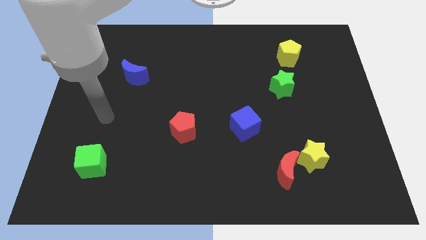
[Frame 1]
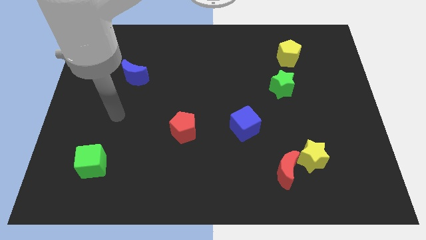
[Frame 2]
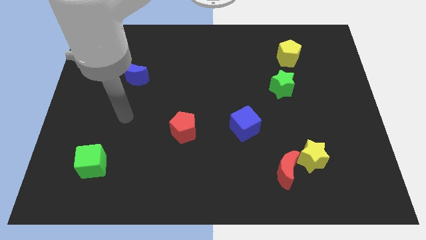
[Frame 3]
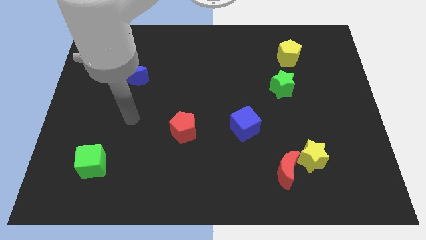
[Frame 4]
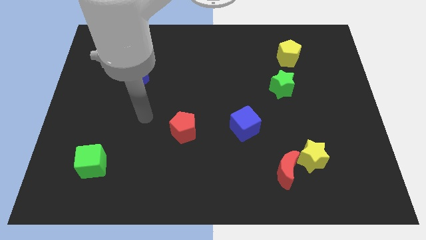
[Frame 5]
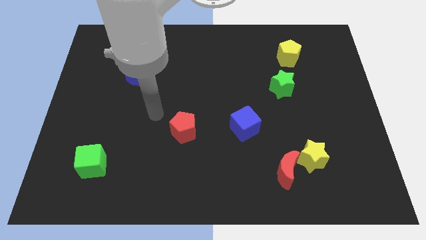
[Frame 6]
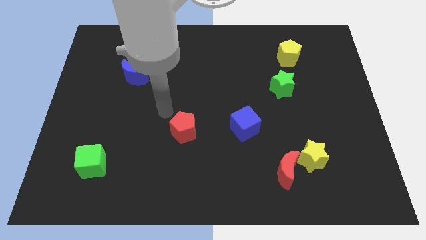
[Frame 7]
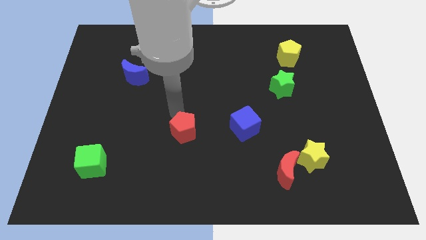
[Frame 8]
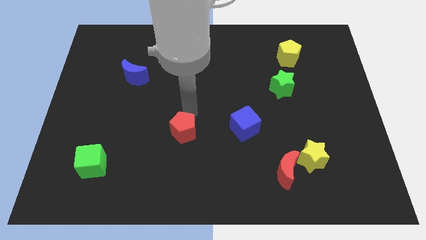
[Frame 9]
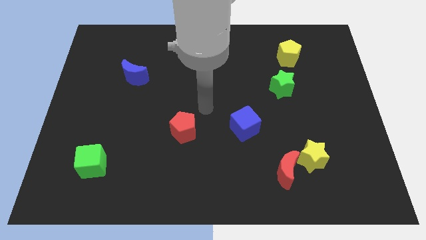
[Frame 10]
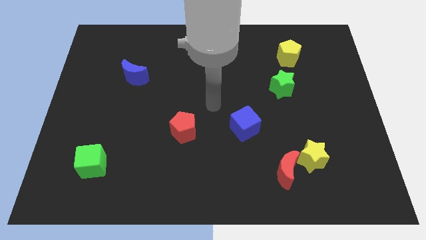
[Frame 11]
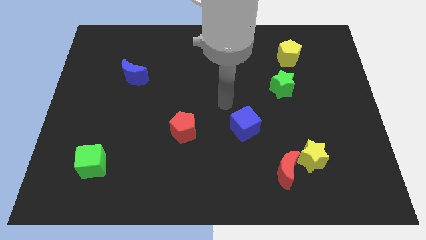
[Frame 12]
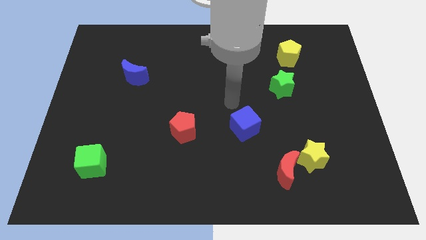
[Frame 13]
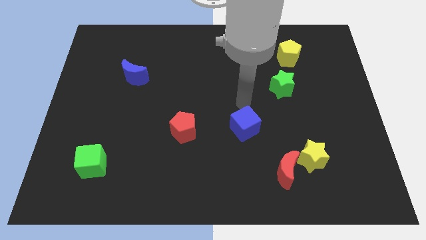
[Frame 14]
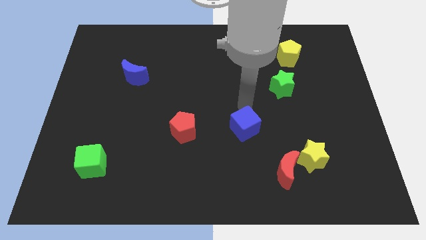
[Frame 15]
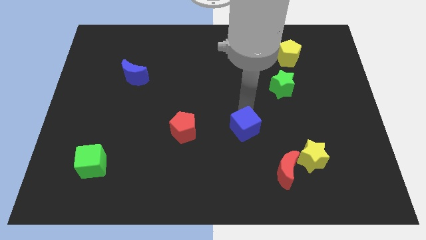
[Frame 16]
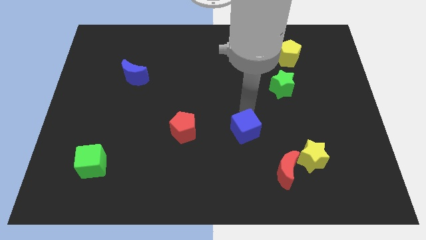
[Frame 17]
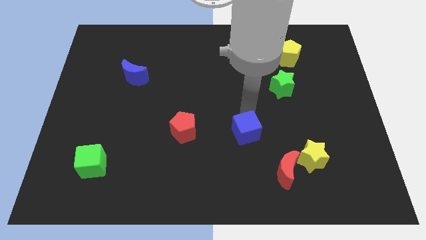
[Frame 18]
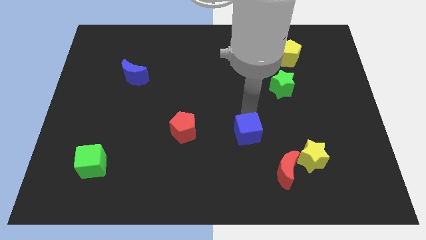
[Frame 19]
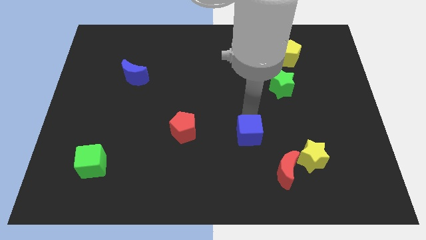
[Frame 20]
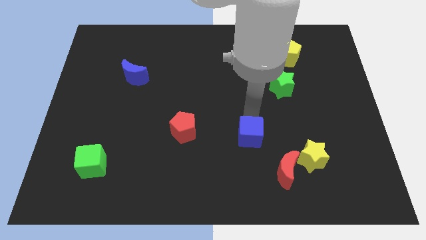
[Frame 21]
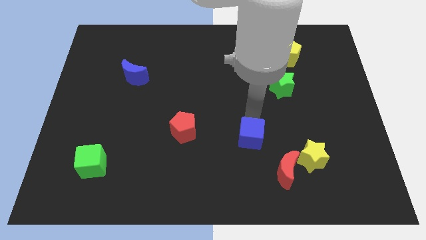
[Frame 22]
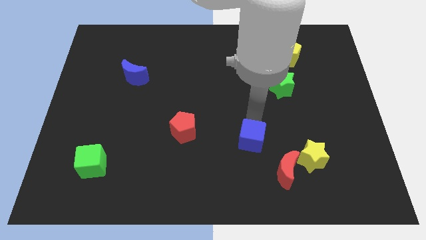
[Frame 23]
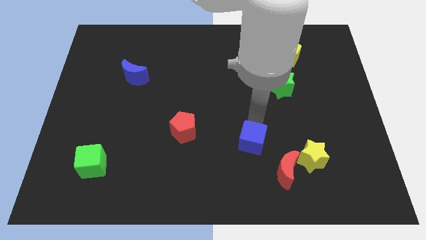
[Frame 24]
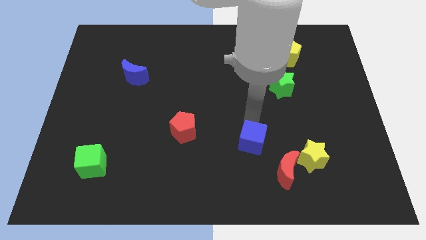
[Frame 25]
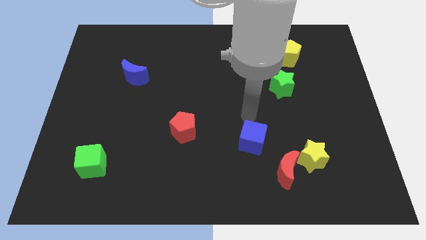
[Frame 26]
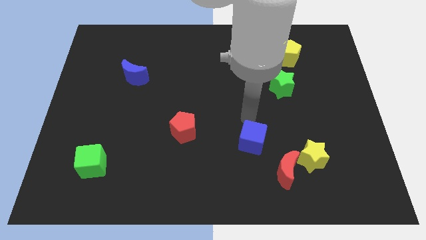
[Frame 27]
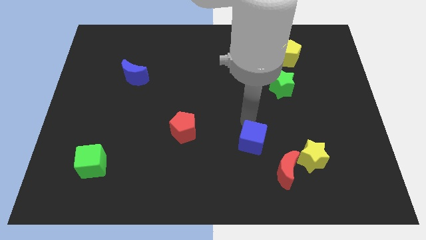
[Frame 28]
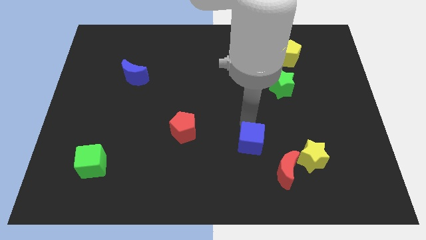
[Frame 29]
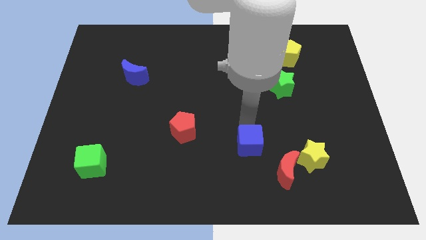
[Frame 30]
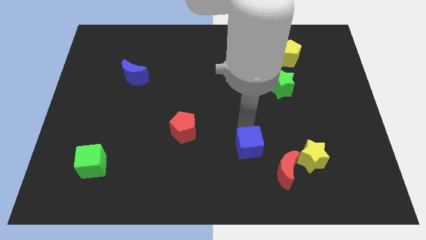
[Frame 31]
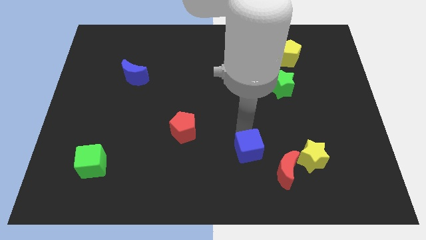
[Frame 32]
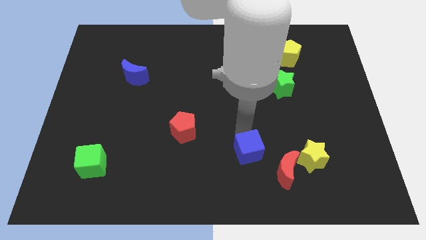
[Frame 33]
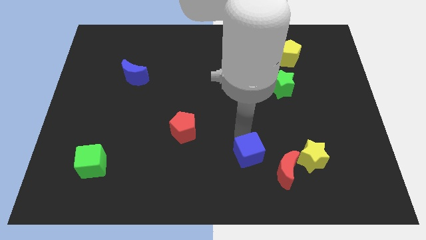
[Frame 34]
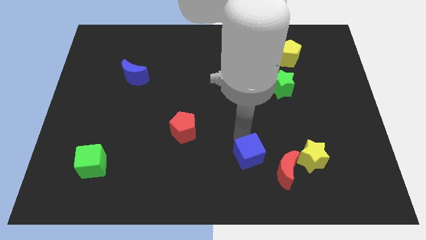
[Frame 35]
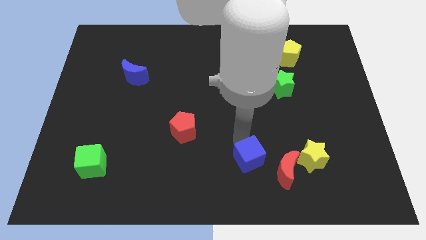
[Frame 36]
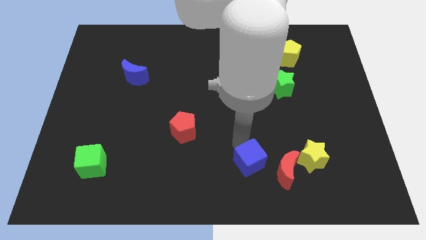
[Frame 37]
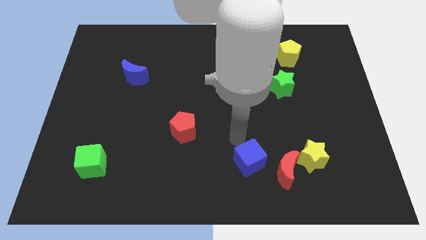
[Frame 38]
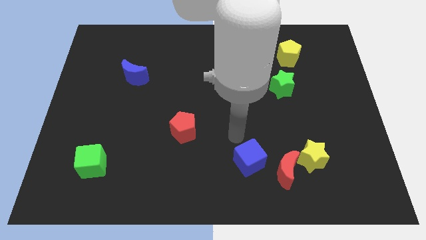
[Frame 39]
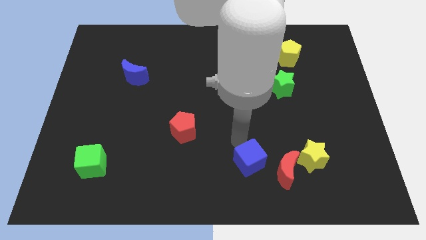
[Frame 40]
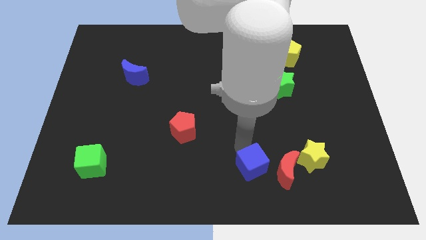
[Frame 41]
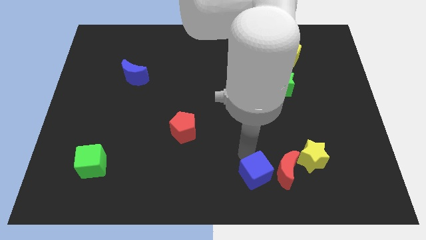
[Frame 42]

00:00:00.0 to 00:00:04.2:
slightly move the blue cube diagonally down and right

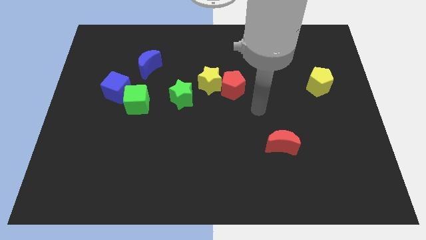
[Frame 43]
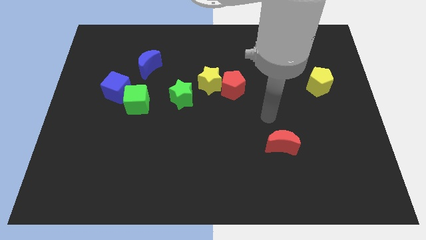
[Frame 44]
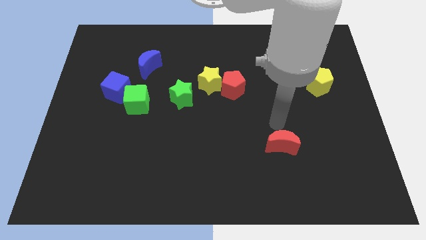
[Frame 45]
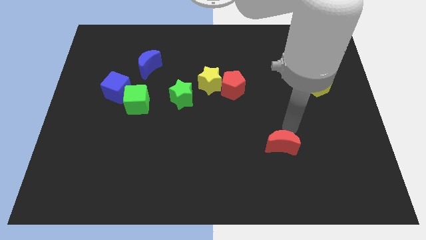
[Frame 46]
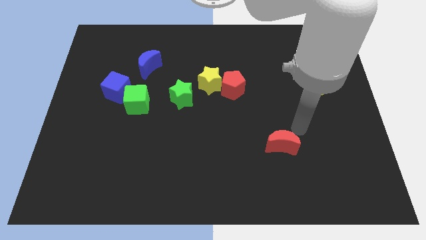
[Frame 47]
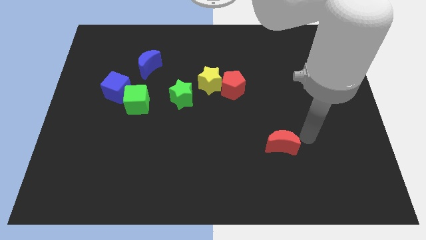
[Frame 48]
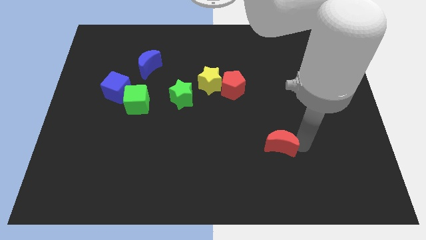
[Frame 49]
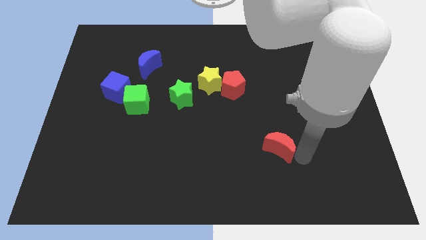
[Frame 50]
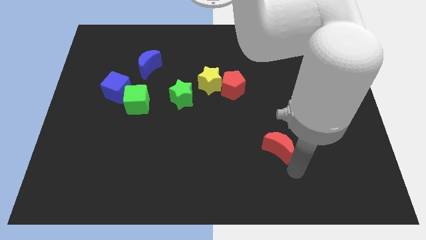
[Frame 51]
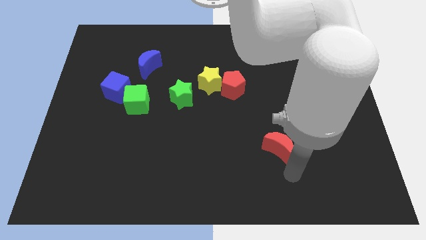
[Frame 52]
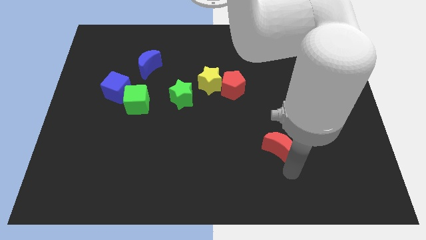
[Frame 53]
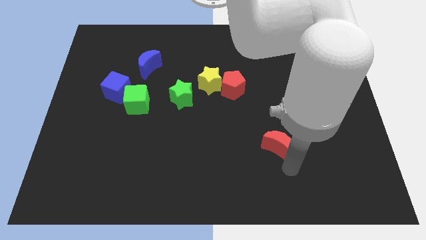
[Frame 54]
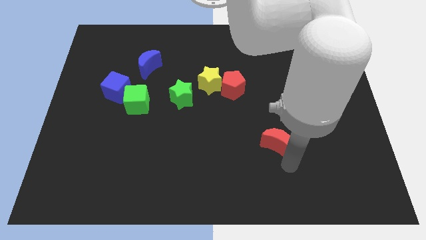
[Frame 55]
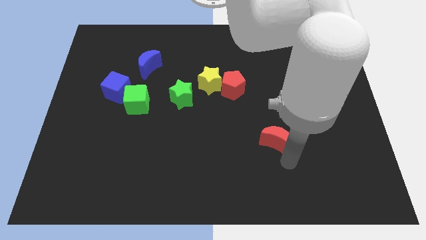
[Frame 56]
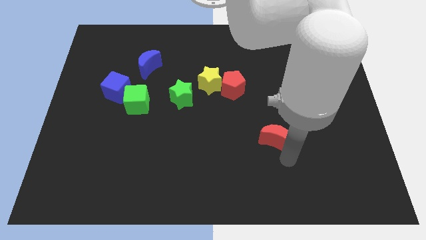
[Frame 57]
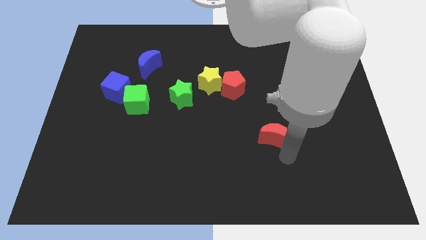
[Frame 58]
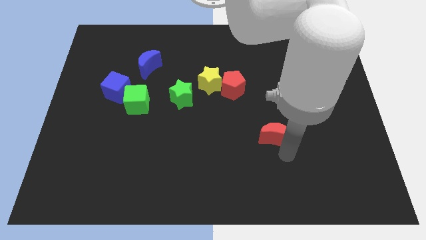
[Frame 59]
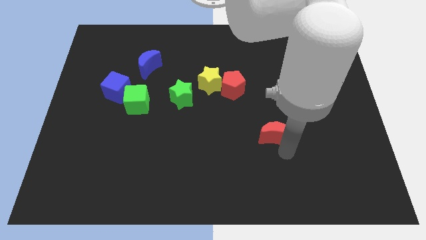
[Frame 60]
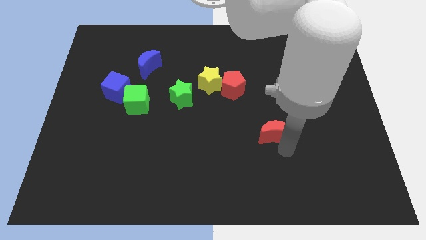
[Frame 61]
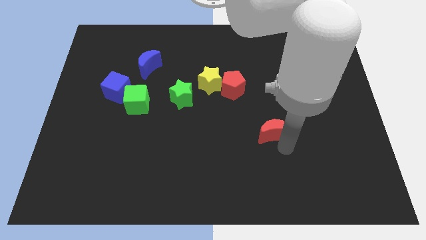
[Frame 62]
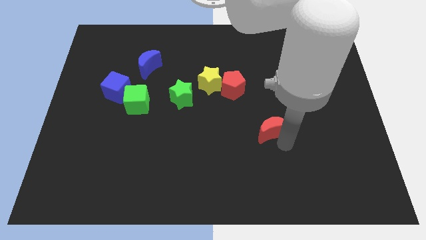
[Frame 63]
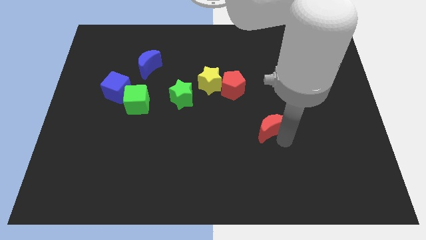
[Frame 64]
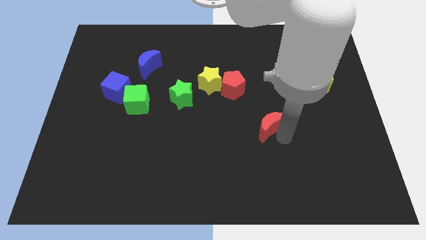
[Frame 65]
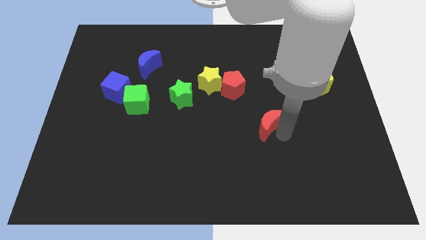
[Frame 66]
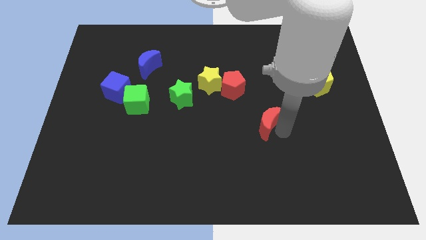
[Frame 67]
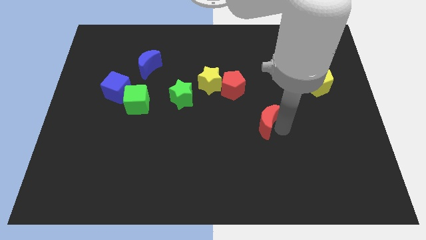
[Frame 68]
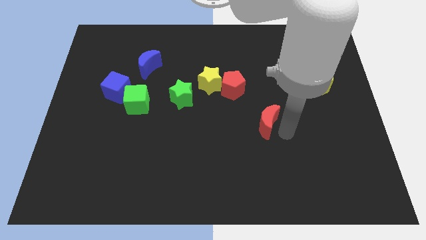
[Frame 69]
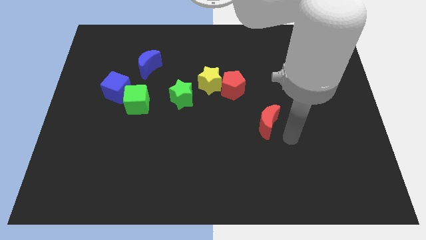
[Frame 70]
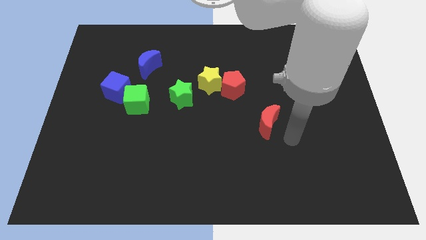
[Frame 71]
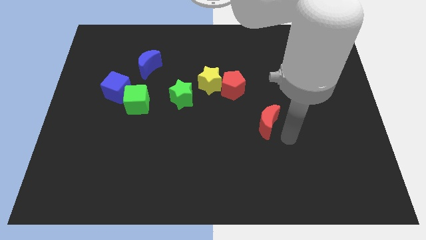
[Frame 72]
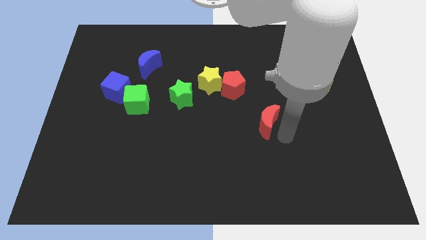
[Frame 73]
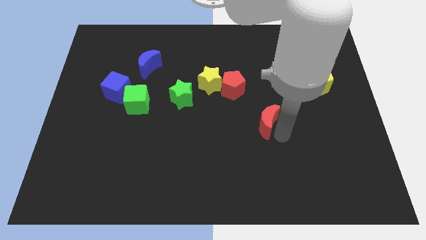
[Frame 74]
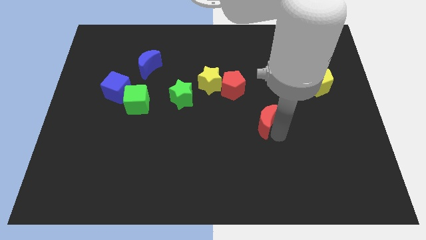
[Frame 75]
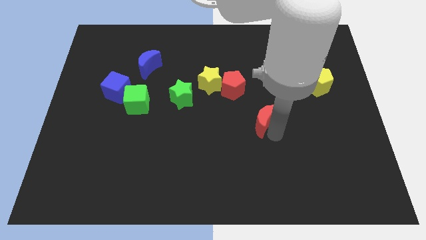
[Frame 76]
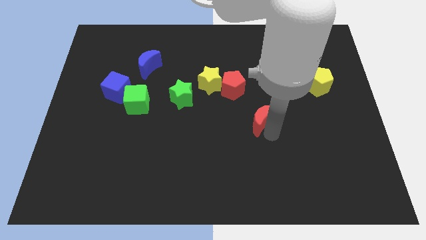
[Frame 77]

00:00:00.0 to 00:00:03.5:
slightly slide the red moon up and then left

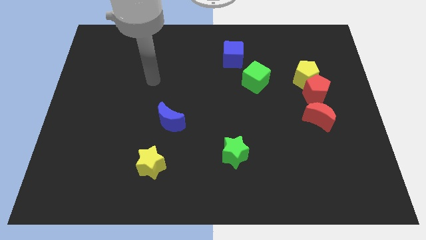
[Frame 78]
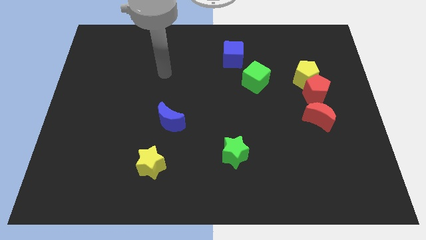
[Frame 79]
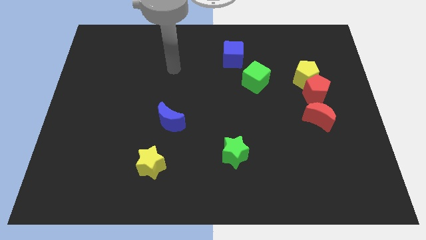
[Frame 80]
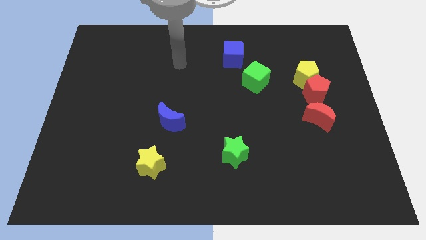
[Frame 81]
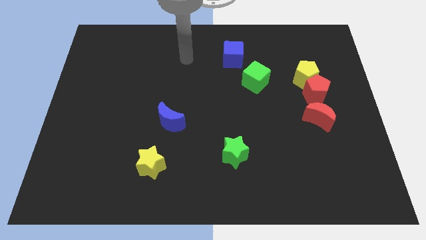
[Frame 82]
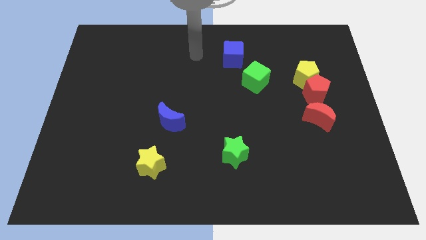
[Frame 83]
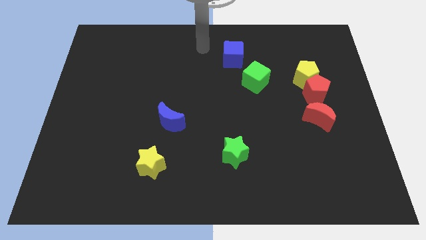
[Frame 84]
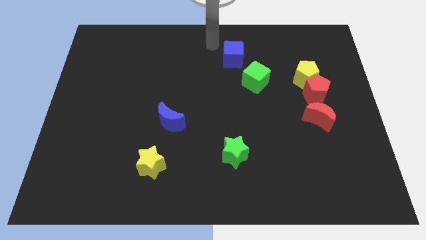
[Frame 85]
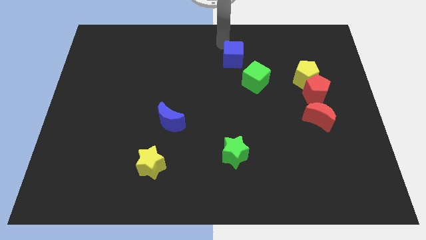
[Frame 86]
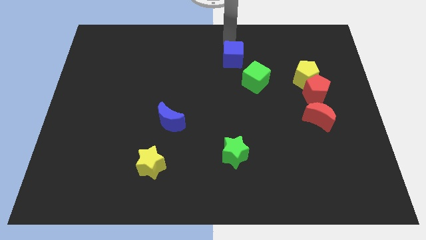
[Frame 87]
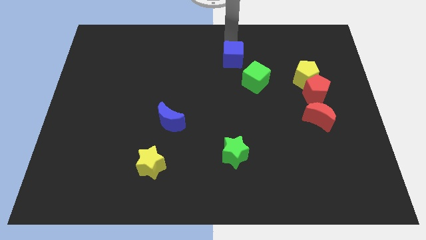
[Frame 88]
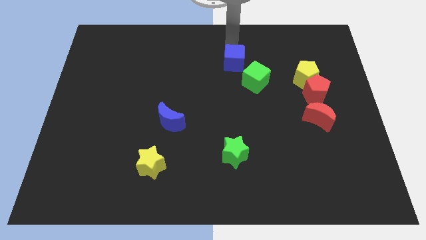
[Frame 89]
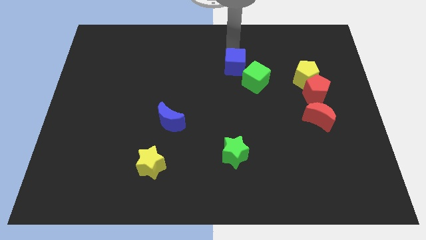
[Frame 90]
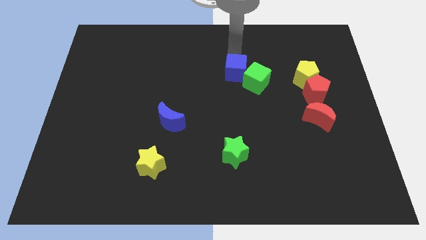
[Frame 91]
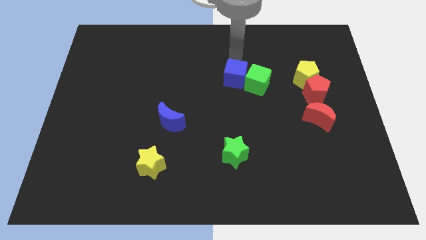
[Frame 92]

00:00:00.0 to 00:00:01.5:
slightly move the blue cube downwards
